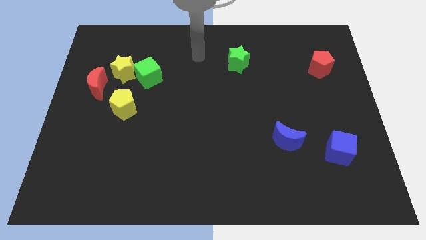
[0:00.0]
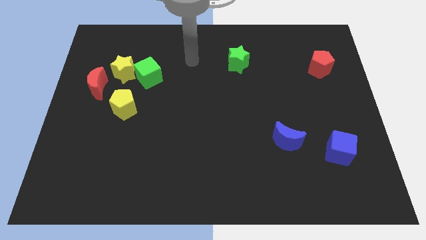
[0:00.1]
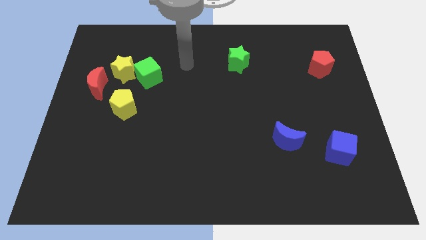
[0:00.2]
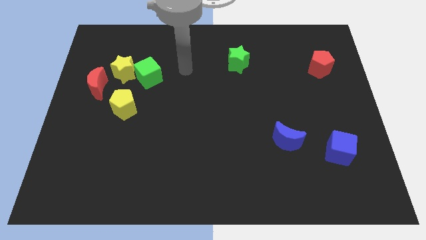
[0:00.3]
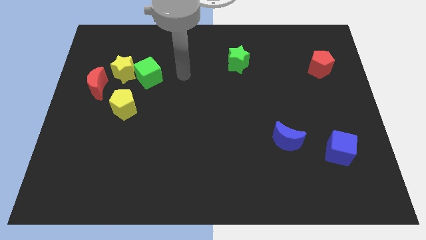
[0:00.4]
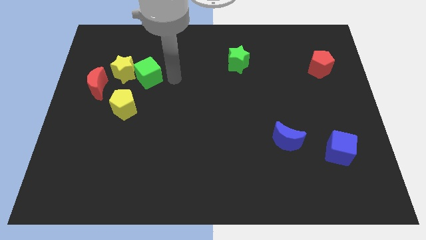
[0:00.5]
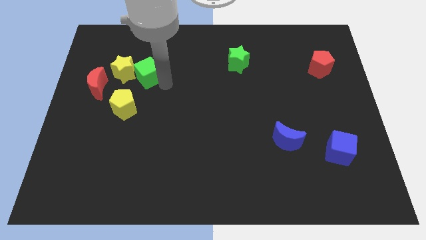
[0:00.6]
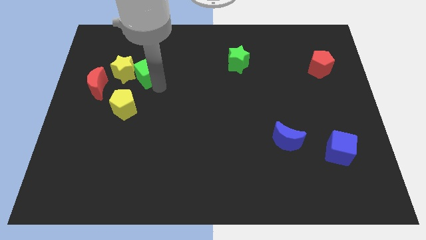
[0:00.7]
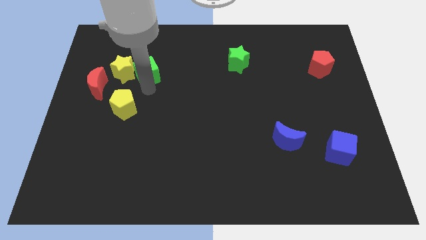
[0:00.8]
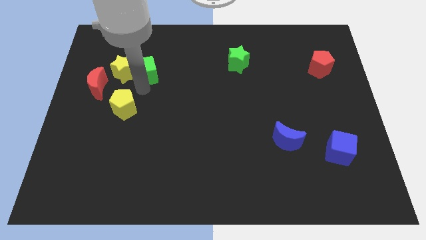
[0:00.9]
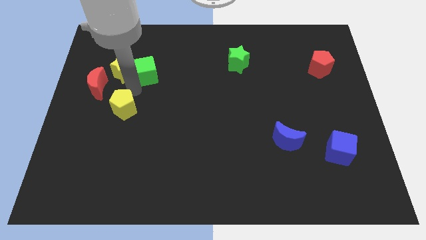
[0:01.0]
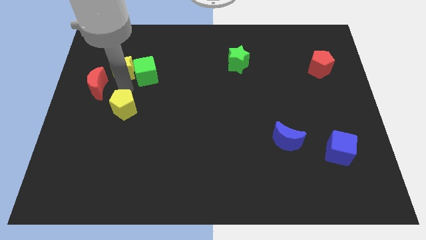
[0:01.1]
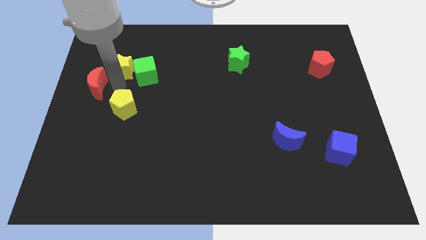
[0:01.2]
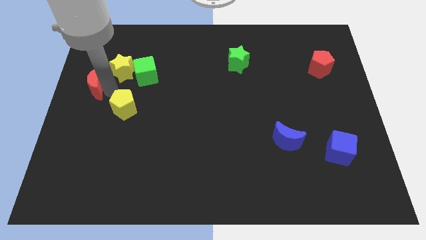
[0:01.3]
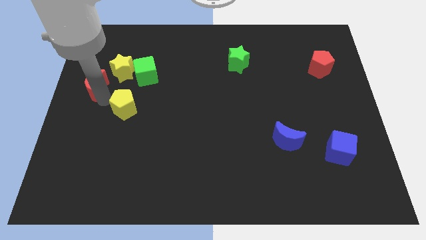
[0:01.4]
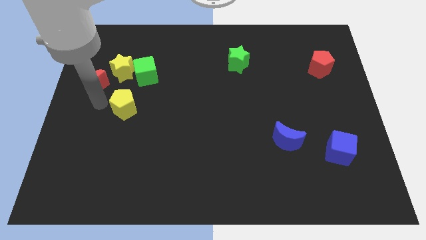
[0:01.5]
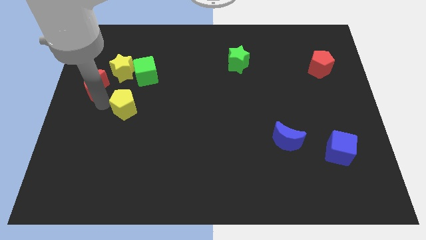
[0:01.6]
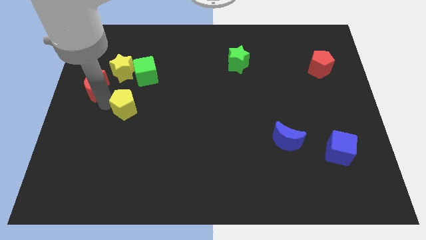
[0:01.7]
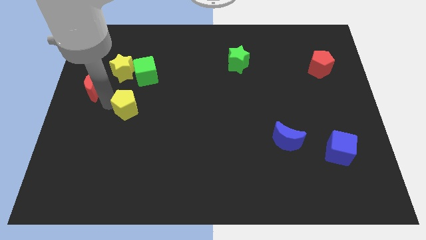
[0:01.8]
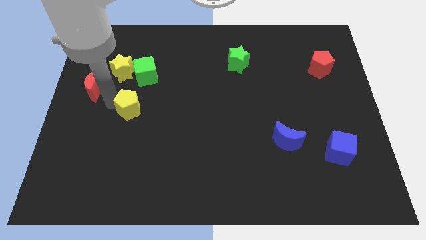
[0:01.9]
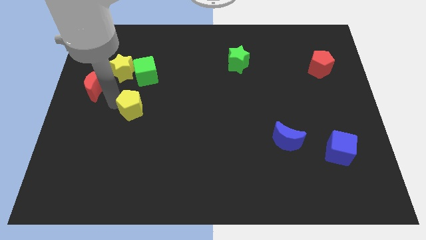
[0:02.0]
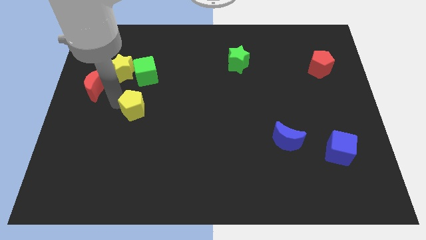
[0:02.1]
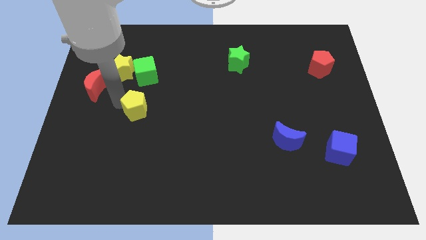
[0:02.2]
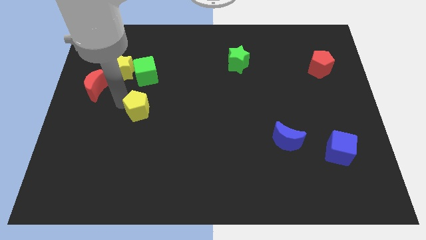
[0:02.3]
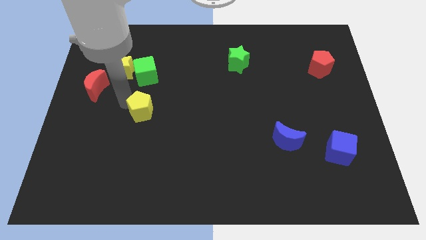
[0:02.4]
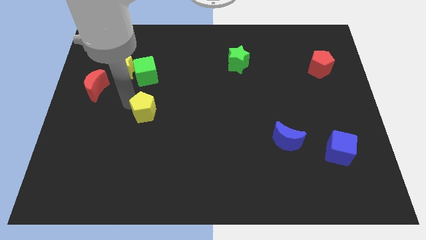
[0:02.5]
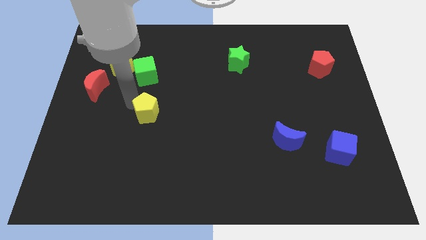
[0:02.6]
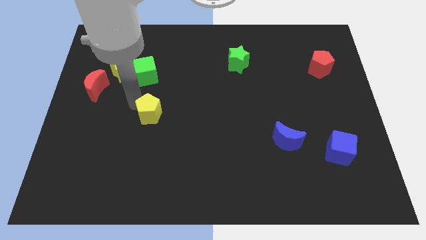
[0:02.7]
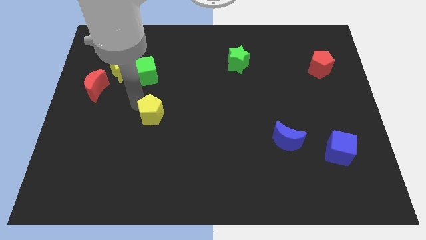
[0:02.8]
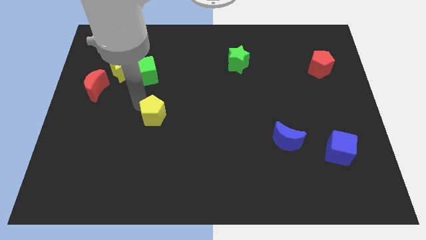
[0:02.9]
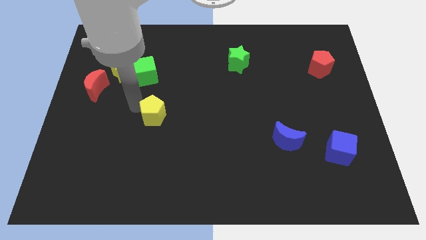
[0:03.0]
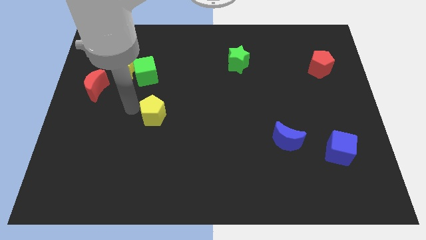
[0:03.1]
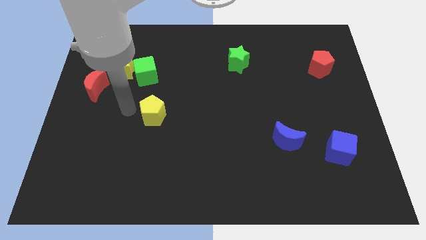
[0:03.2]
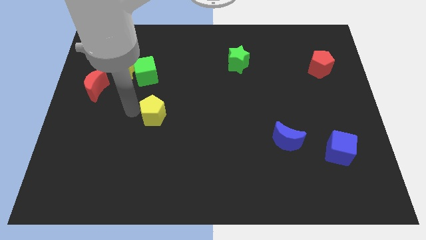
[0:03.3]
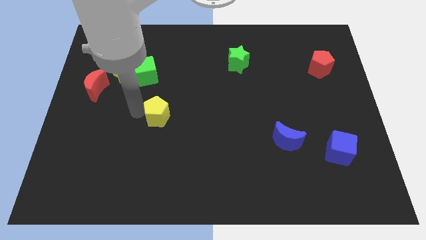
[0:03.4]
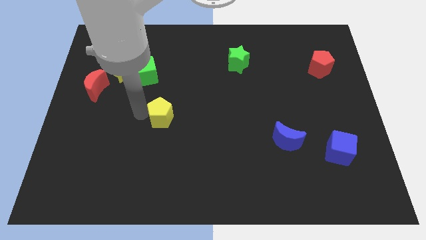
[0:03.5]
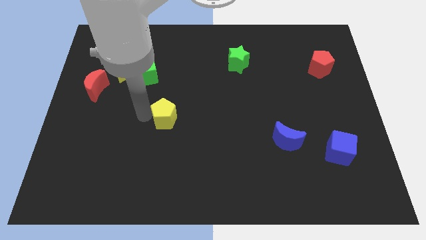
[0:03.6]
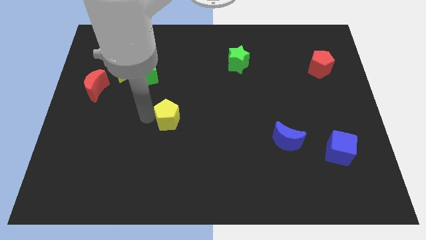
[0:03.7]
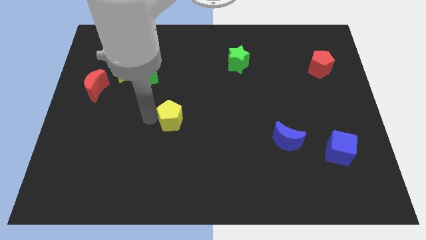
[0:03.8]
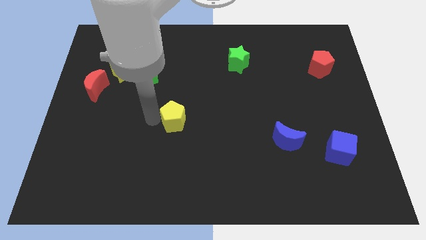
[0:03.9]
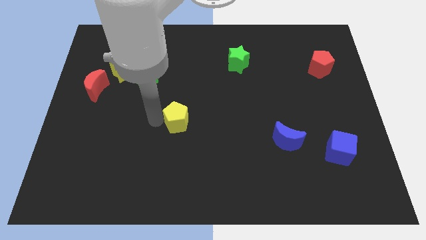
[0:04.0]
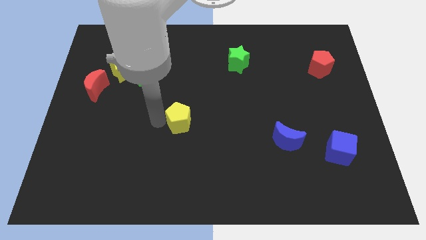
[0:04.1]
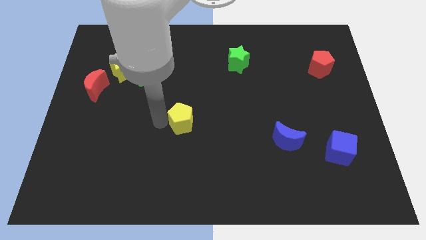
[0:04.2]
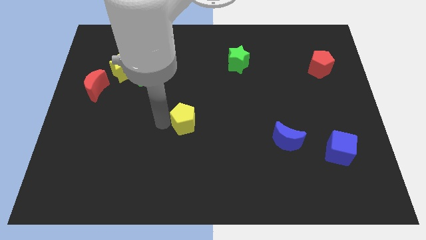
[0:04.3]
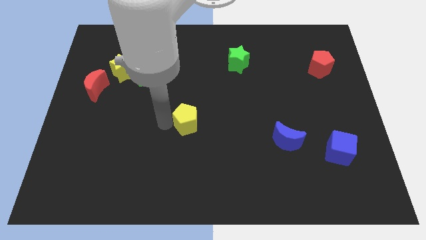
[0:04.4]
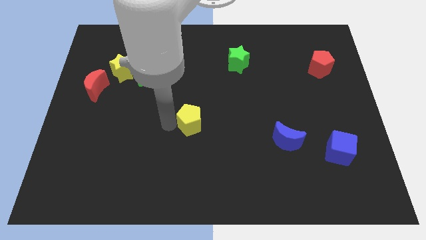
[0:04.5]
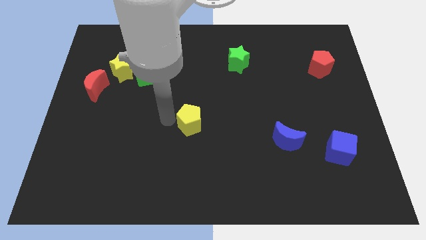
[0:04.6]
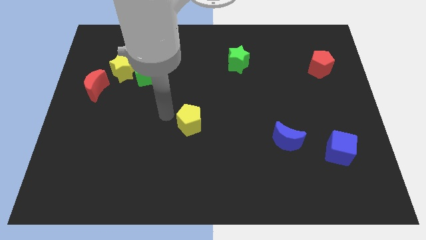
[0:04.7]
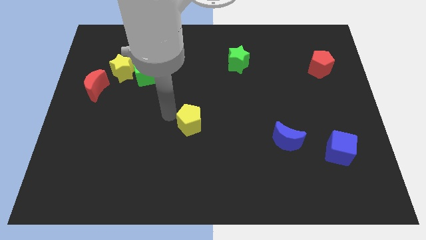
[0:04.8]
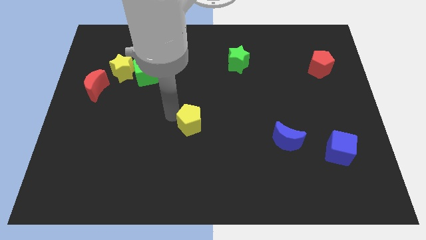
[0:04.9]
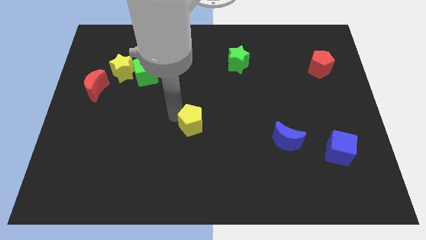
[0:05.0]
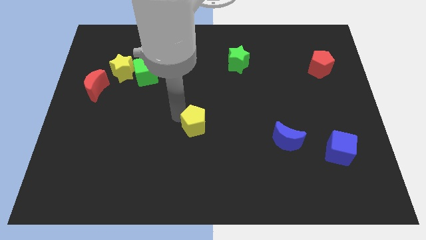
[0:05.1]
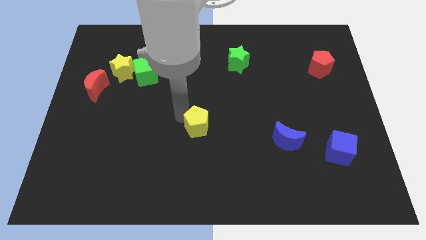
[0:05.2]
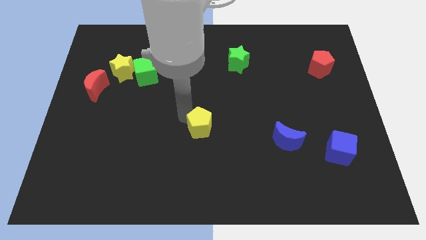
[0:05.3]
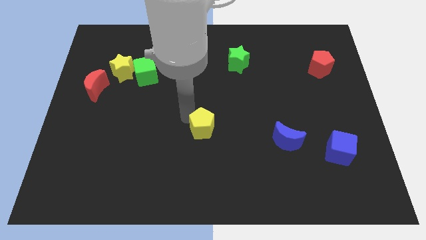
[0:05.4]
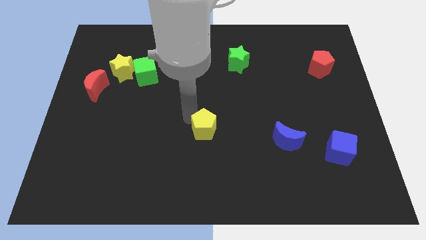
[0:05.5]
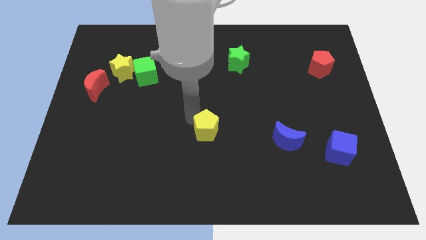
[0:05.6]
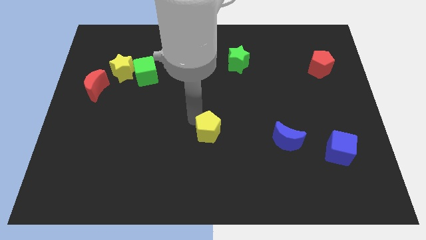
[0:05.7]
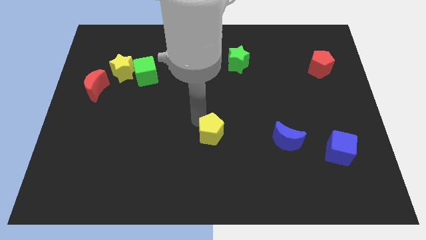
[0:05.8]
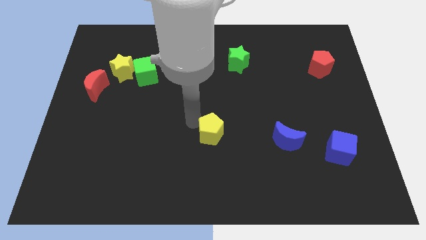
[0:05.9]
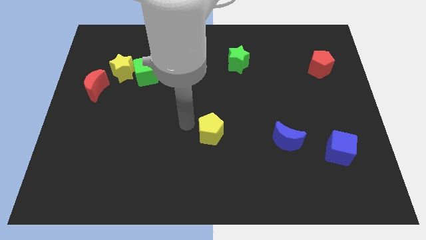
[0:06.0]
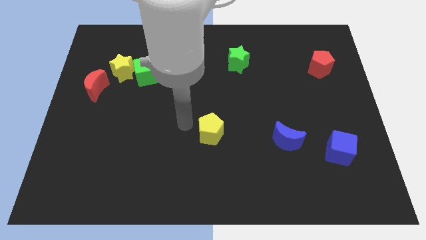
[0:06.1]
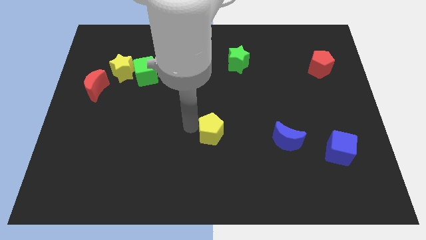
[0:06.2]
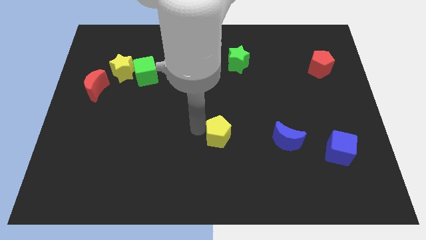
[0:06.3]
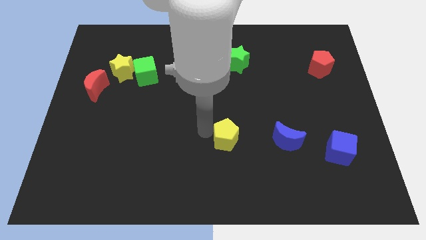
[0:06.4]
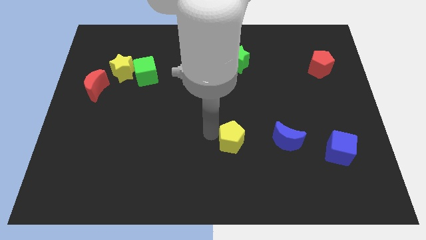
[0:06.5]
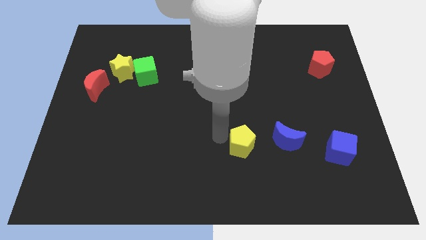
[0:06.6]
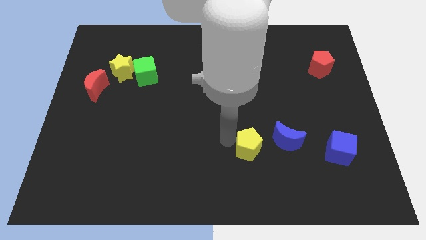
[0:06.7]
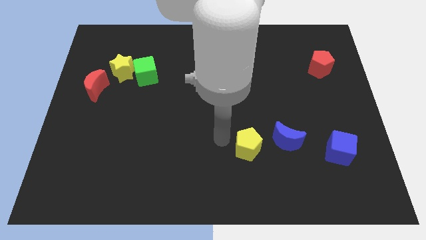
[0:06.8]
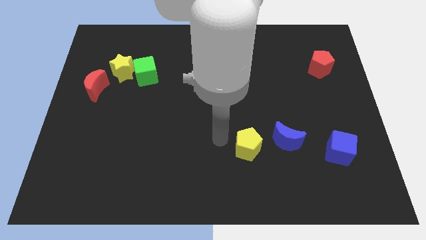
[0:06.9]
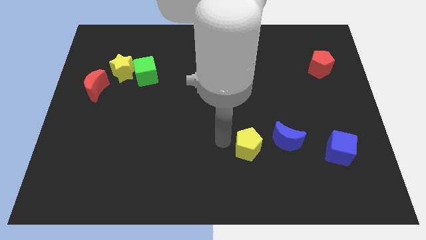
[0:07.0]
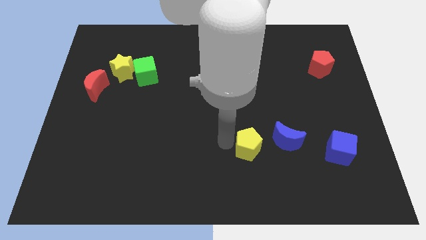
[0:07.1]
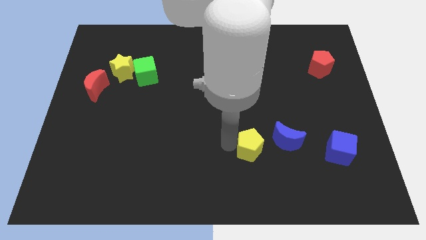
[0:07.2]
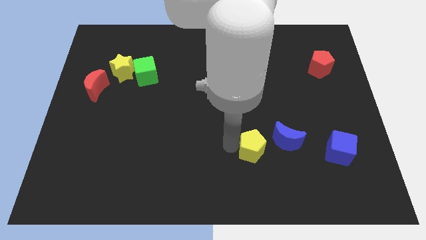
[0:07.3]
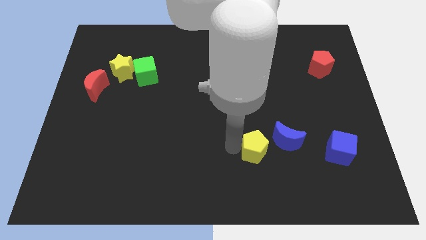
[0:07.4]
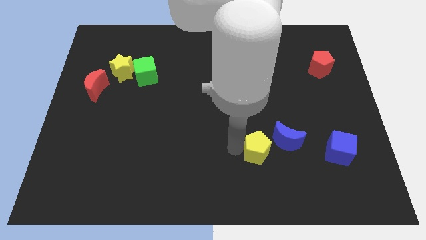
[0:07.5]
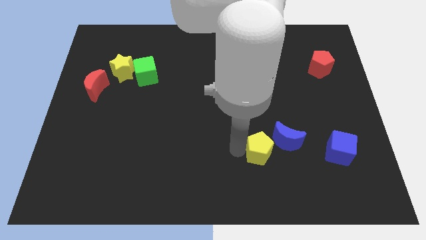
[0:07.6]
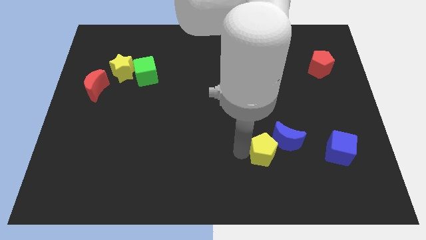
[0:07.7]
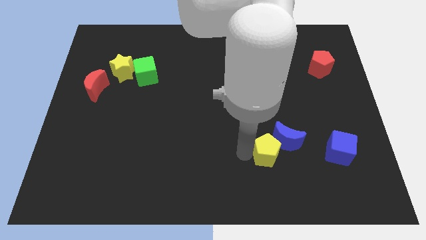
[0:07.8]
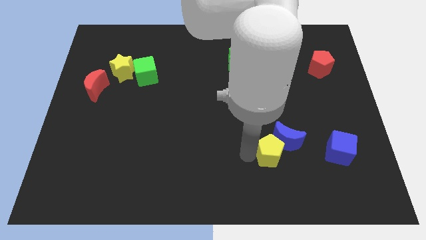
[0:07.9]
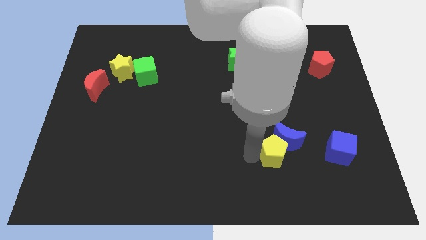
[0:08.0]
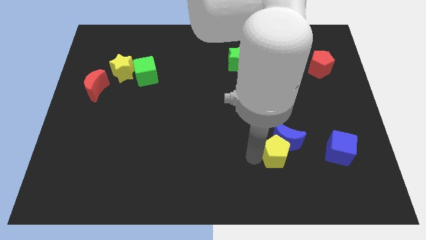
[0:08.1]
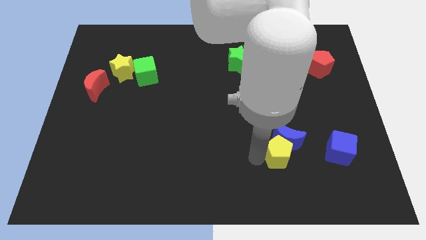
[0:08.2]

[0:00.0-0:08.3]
push the yellow pentagon to the bottom right of the blue moon
